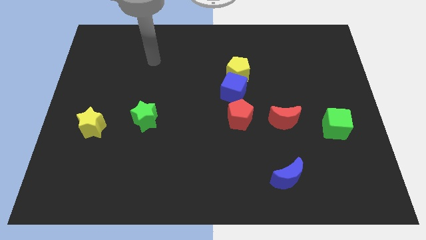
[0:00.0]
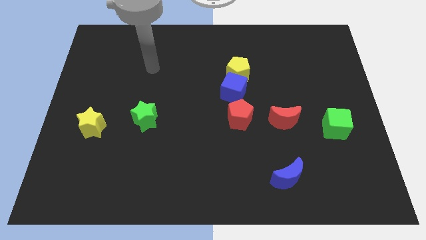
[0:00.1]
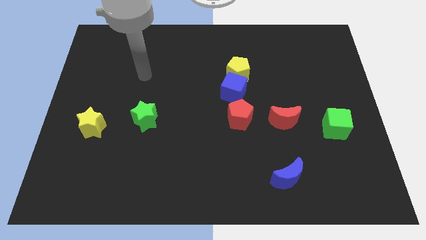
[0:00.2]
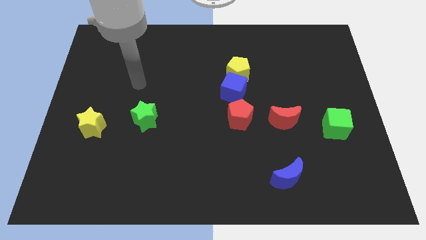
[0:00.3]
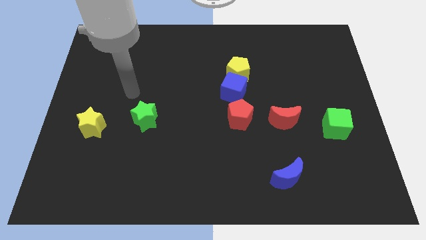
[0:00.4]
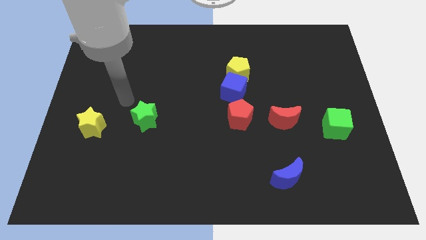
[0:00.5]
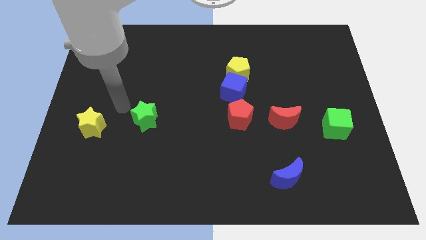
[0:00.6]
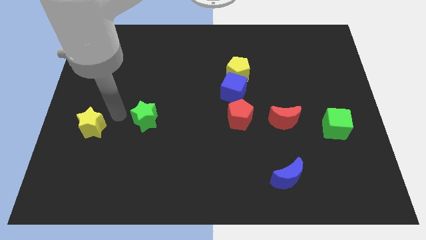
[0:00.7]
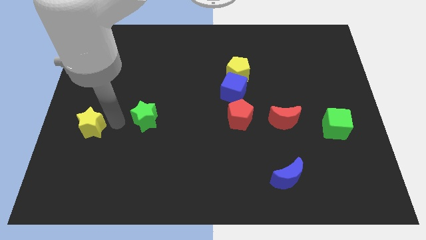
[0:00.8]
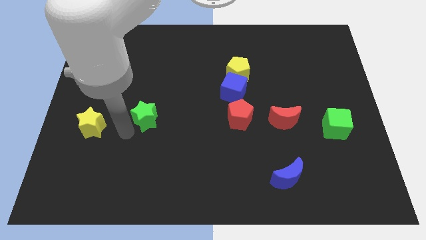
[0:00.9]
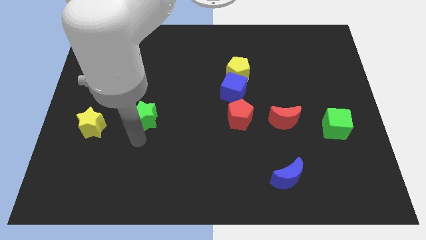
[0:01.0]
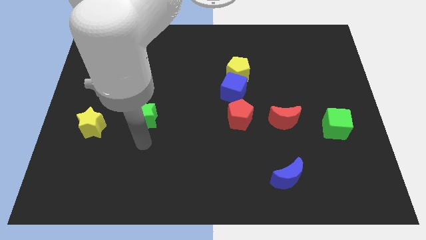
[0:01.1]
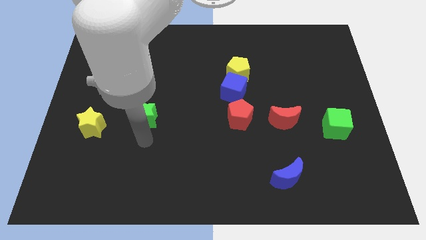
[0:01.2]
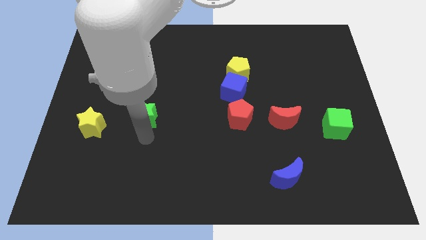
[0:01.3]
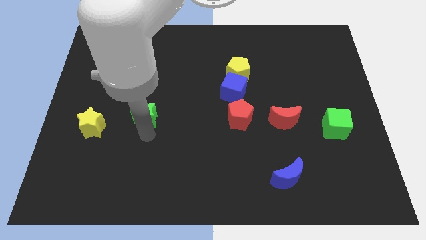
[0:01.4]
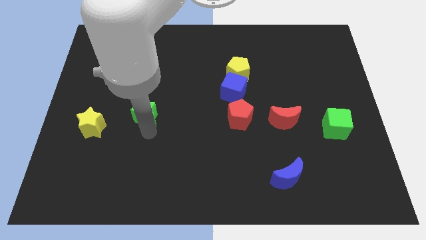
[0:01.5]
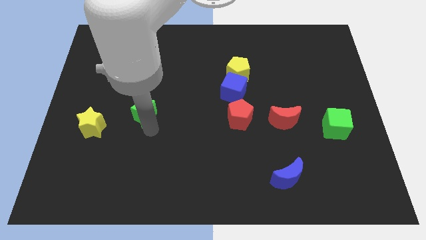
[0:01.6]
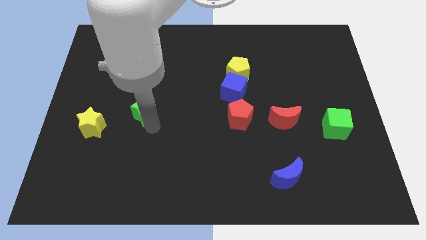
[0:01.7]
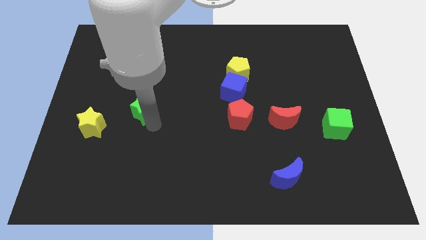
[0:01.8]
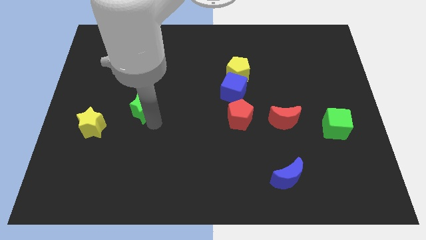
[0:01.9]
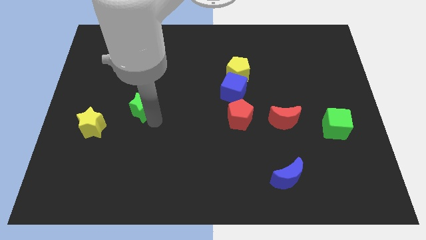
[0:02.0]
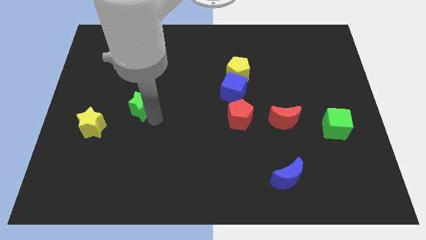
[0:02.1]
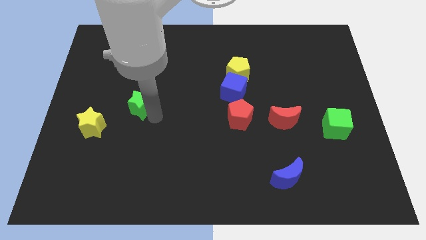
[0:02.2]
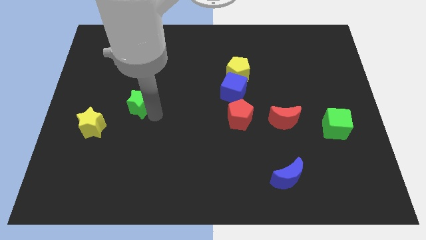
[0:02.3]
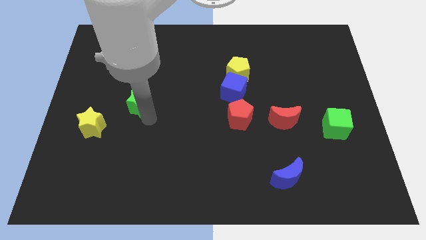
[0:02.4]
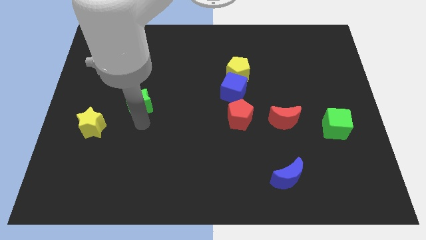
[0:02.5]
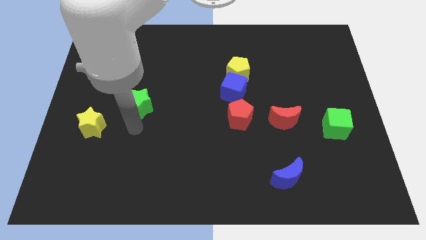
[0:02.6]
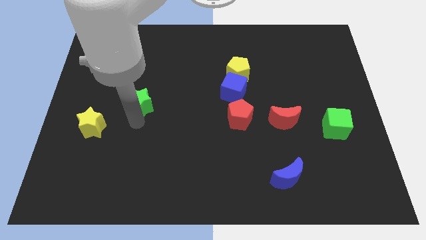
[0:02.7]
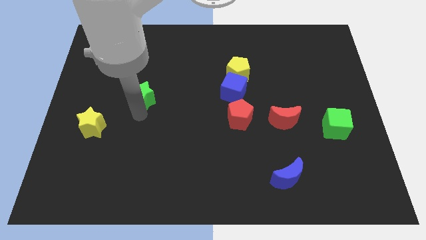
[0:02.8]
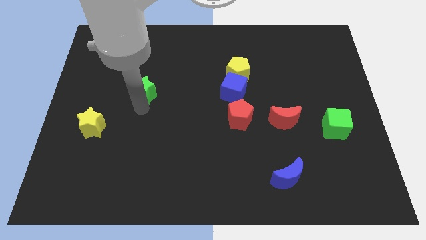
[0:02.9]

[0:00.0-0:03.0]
push the green star upwards a little

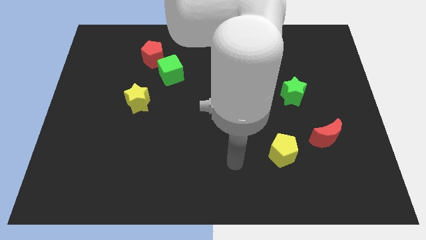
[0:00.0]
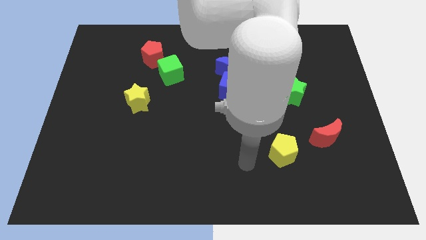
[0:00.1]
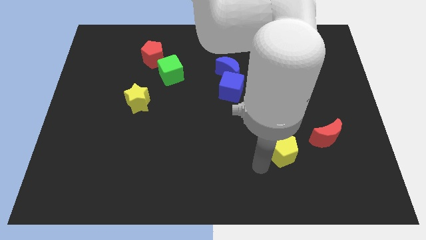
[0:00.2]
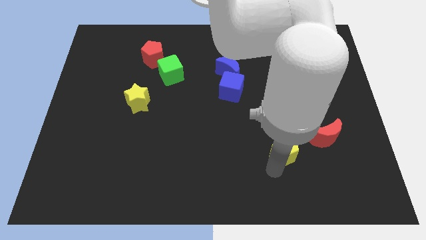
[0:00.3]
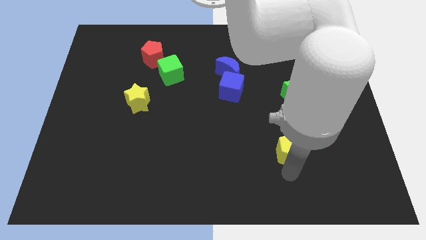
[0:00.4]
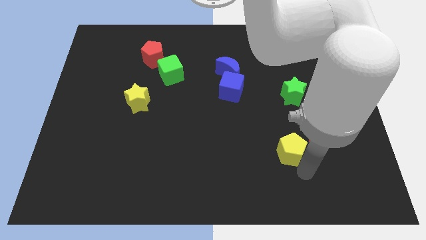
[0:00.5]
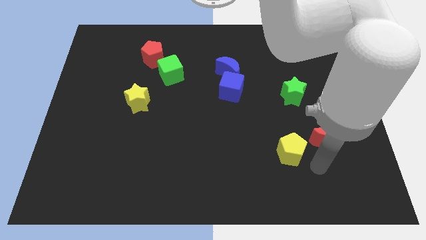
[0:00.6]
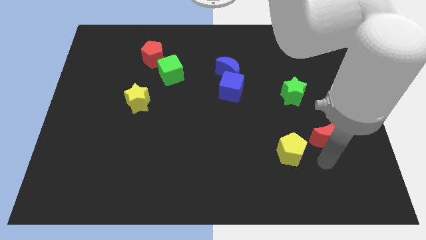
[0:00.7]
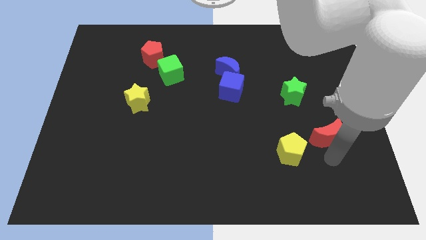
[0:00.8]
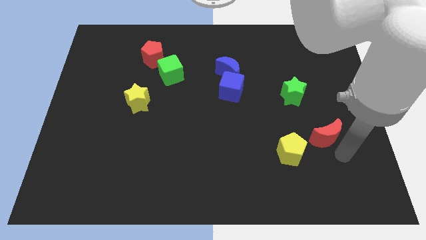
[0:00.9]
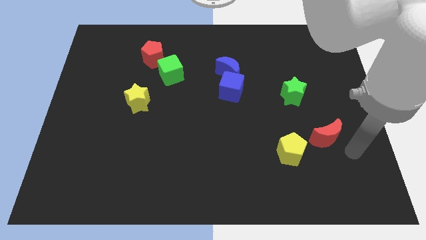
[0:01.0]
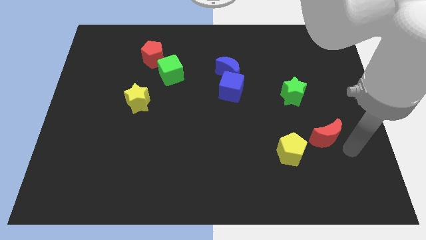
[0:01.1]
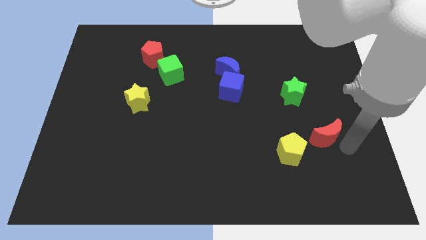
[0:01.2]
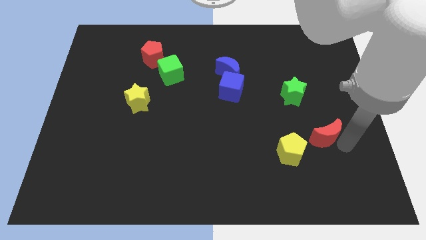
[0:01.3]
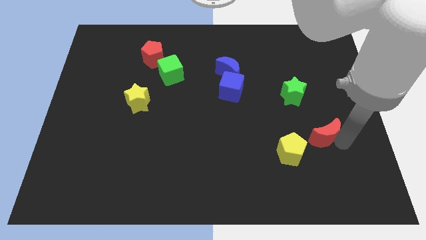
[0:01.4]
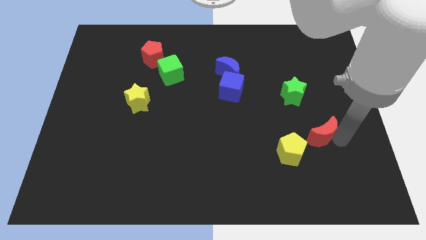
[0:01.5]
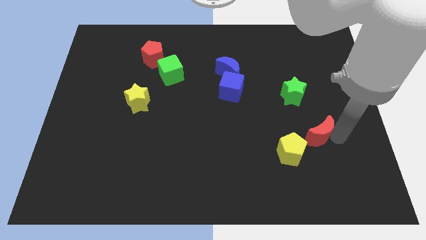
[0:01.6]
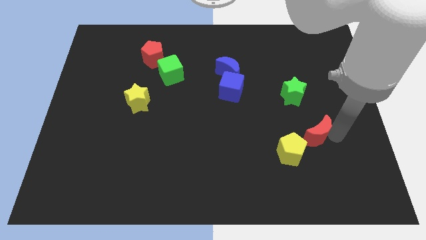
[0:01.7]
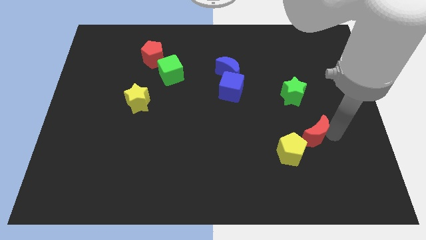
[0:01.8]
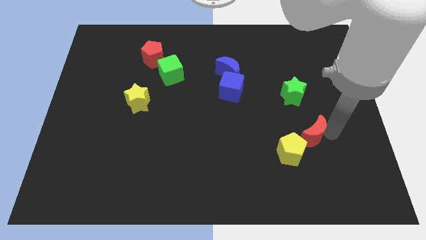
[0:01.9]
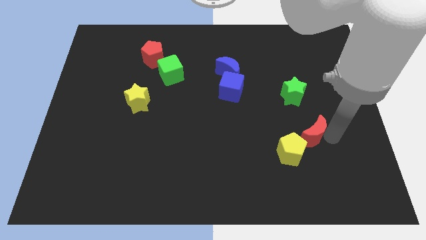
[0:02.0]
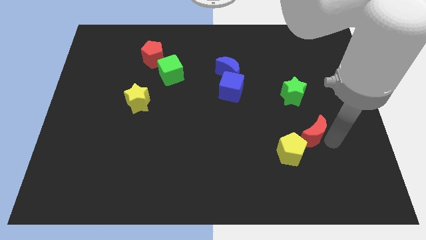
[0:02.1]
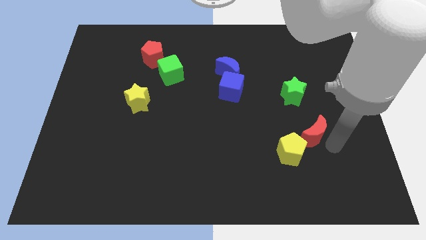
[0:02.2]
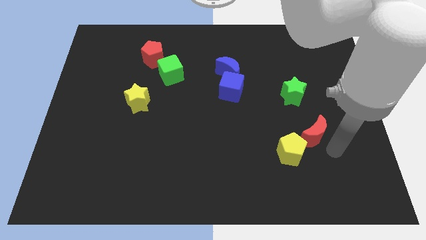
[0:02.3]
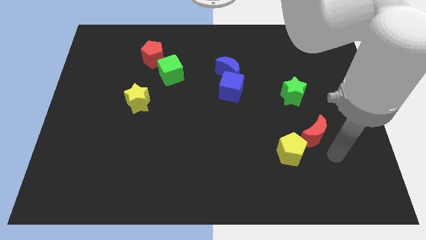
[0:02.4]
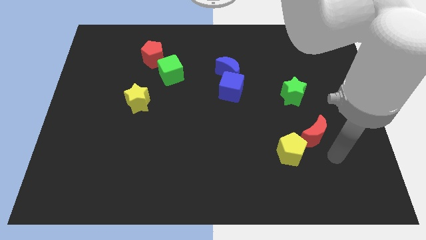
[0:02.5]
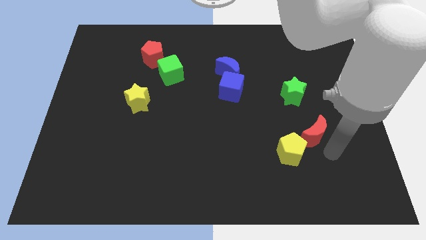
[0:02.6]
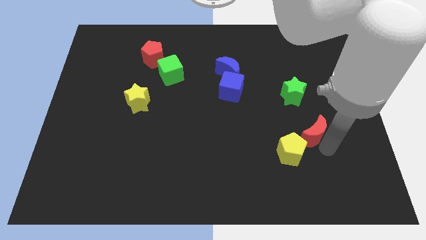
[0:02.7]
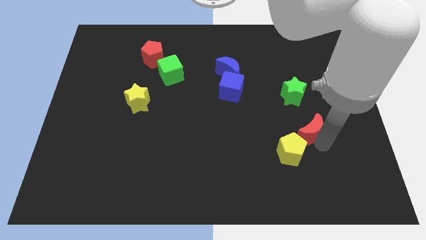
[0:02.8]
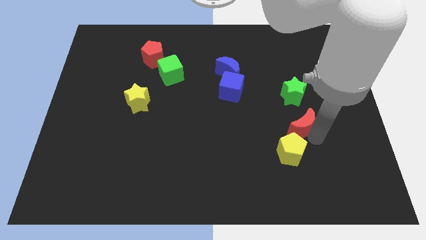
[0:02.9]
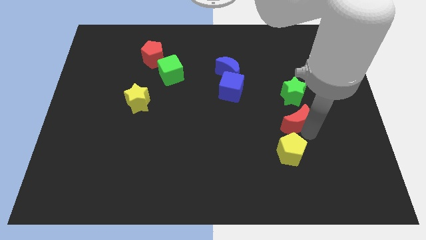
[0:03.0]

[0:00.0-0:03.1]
slightly push the red moon upwards and left diagonally

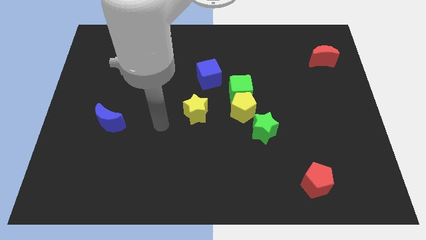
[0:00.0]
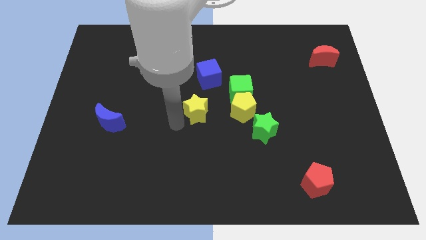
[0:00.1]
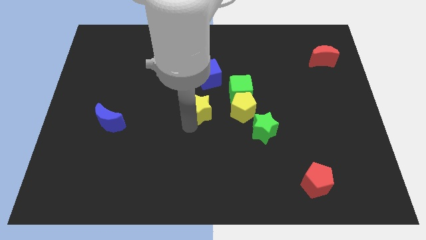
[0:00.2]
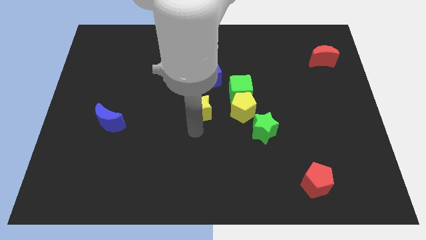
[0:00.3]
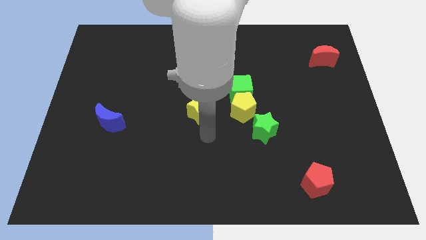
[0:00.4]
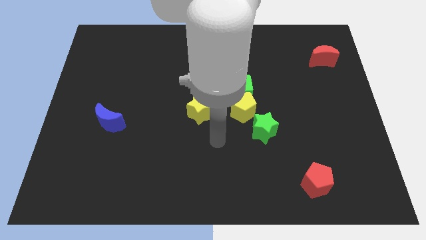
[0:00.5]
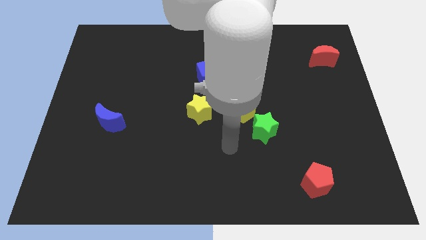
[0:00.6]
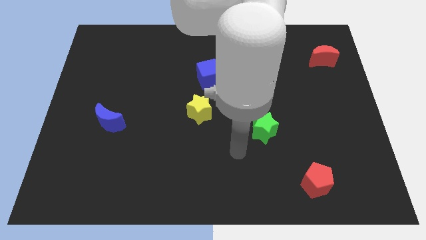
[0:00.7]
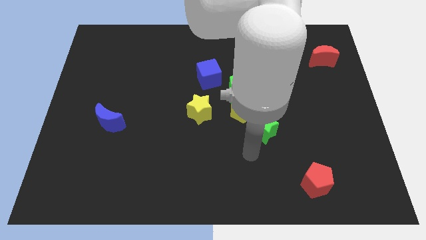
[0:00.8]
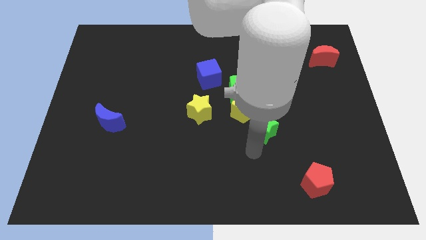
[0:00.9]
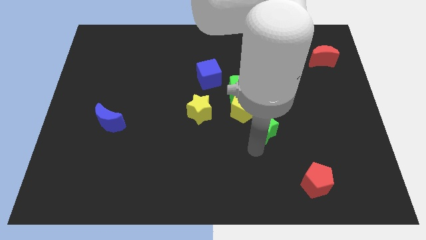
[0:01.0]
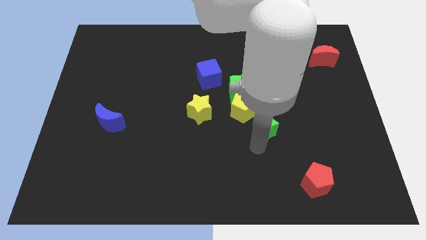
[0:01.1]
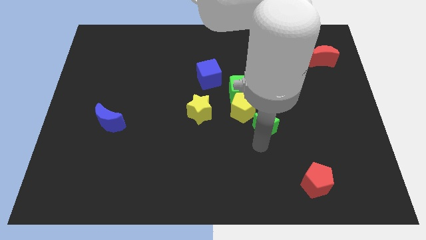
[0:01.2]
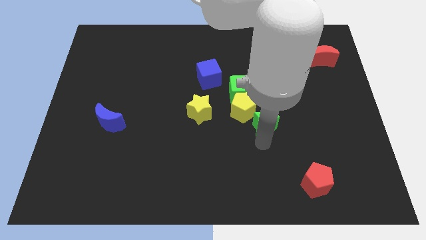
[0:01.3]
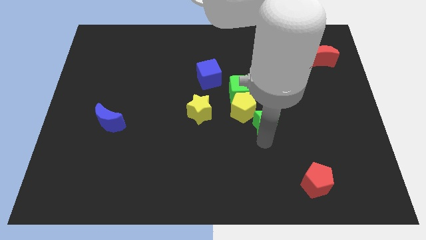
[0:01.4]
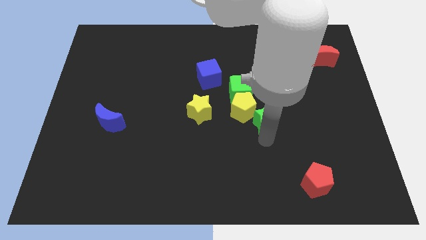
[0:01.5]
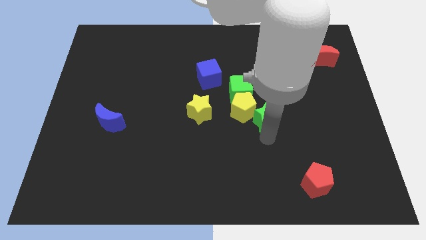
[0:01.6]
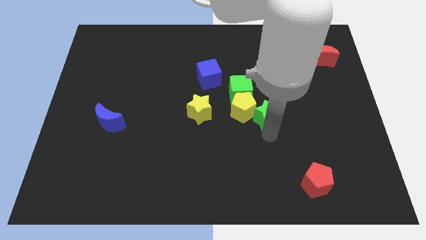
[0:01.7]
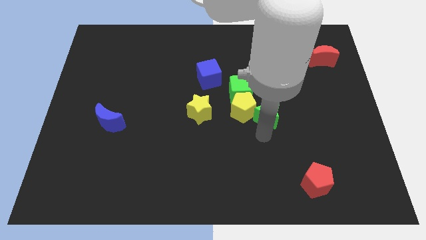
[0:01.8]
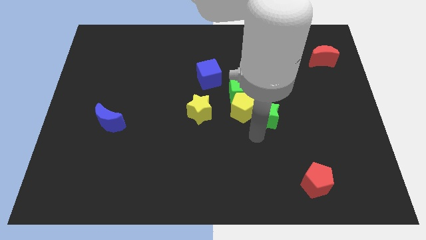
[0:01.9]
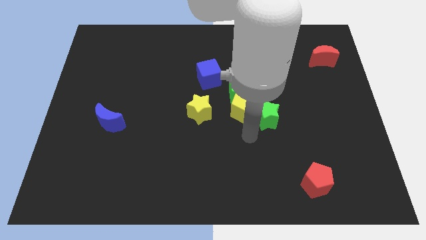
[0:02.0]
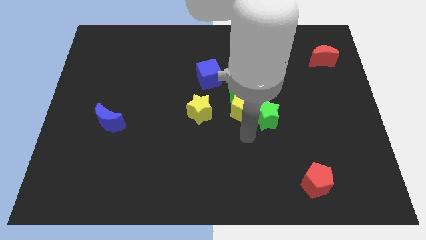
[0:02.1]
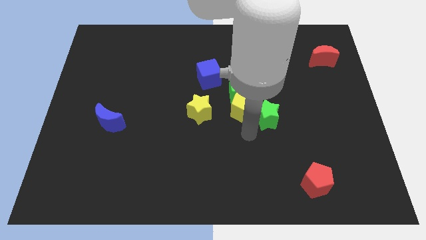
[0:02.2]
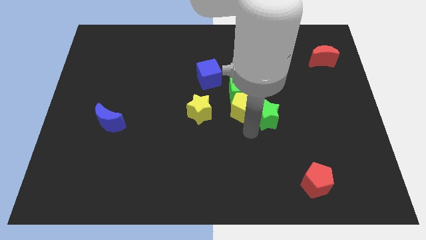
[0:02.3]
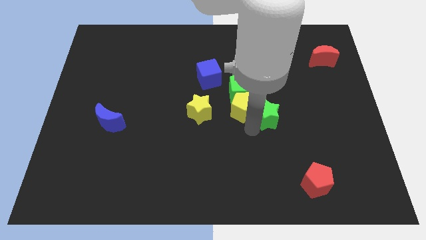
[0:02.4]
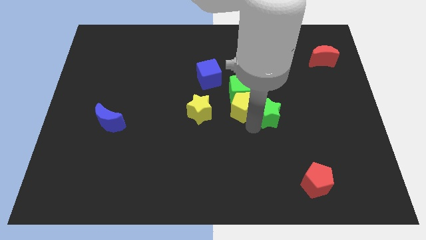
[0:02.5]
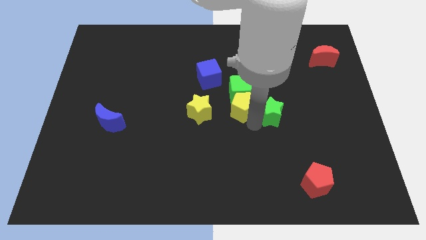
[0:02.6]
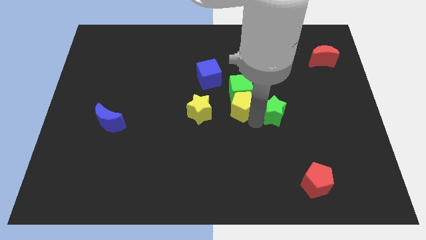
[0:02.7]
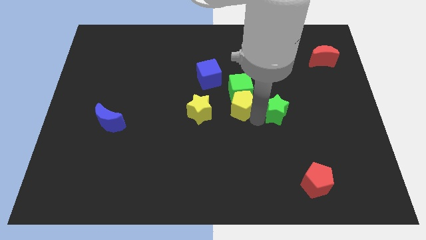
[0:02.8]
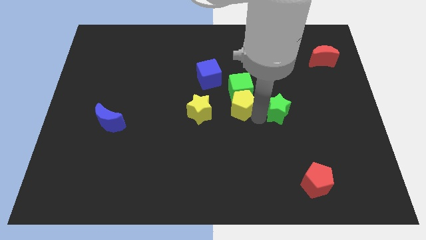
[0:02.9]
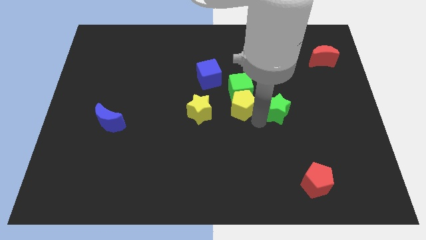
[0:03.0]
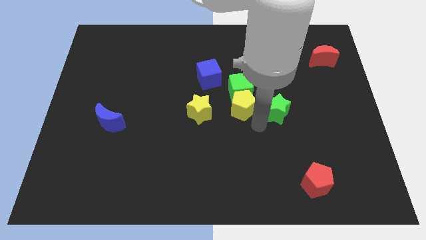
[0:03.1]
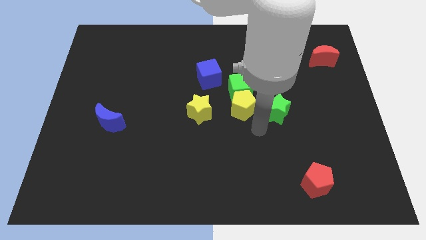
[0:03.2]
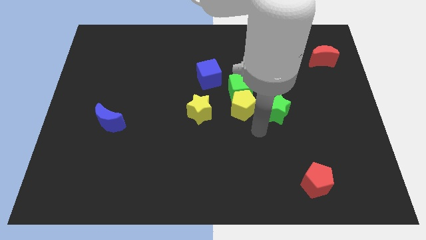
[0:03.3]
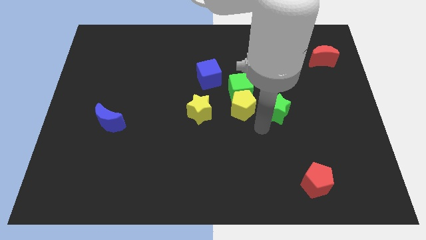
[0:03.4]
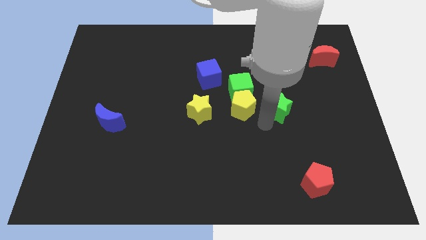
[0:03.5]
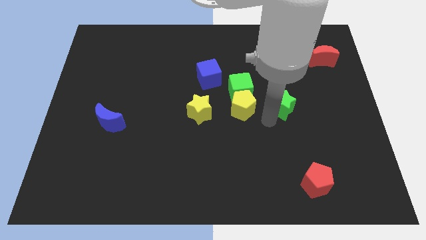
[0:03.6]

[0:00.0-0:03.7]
slide the green star diagonally upwards and to the right a little
